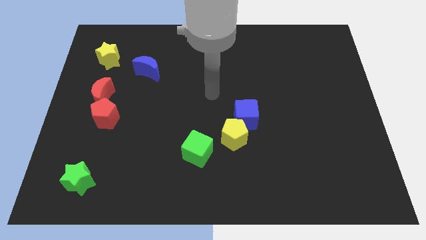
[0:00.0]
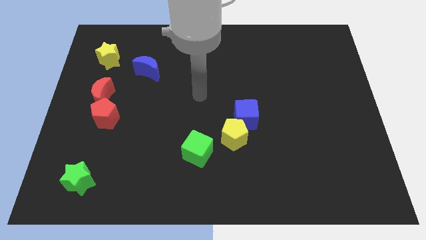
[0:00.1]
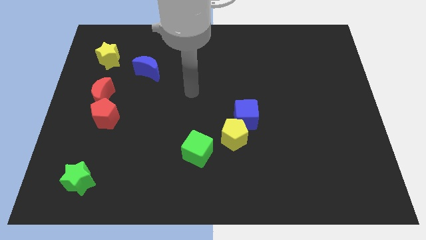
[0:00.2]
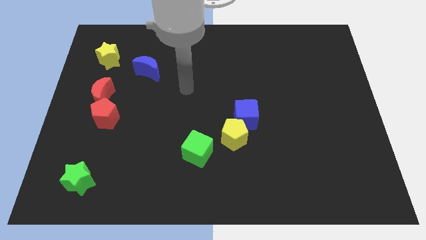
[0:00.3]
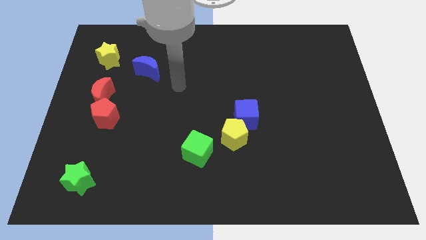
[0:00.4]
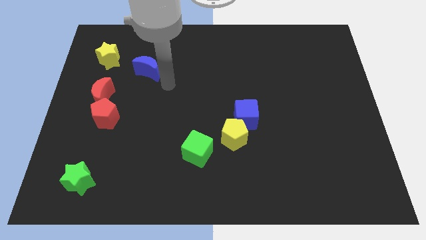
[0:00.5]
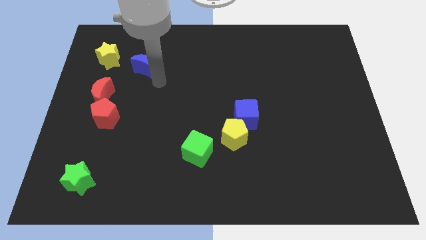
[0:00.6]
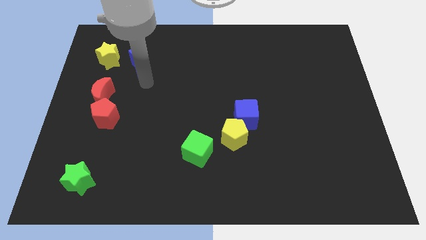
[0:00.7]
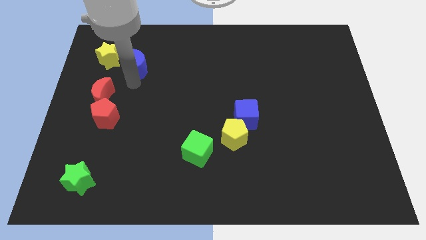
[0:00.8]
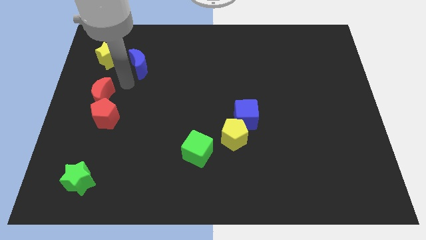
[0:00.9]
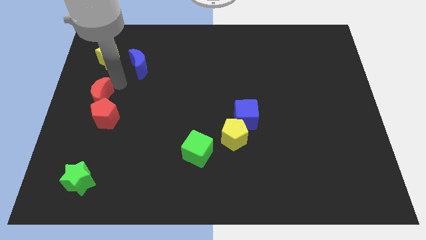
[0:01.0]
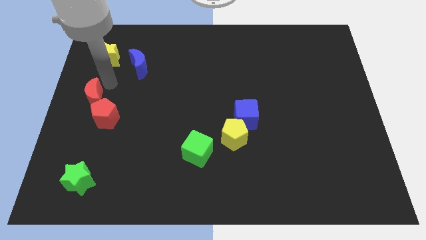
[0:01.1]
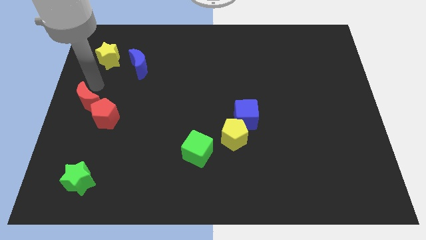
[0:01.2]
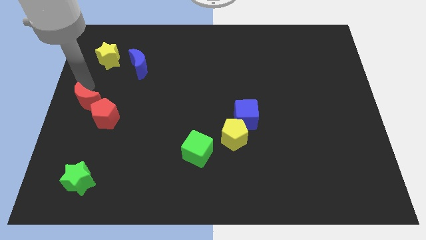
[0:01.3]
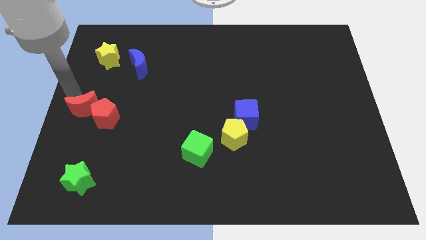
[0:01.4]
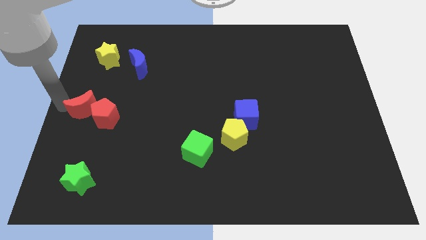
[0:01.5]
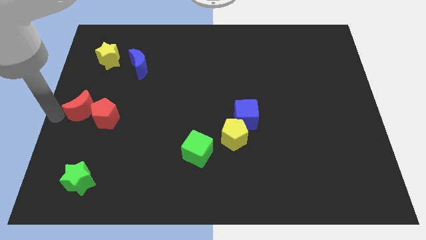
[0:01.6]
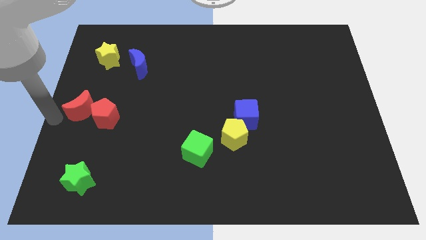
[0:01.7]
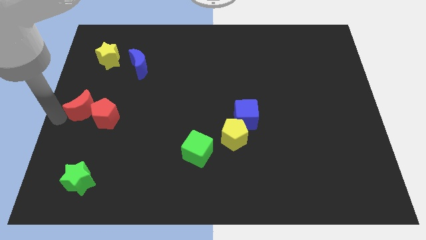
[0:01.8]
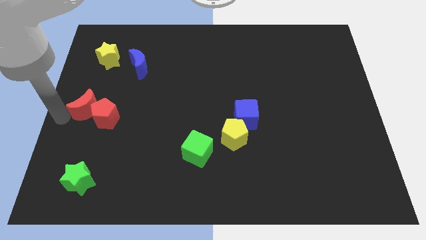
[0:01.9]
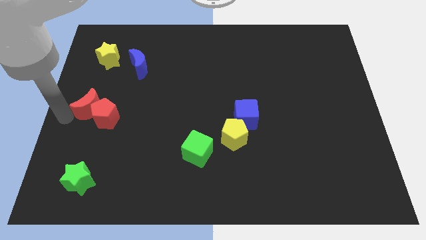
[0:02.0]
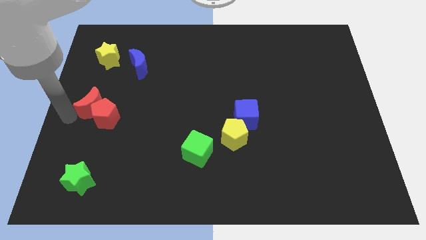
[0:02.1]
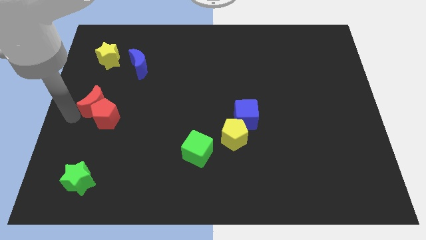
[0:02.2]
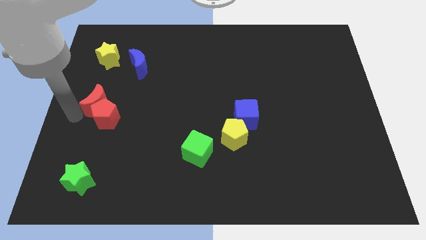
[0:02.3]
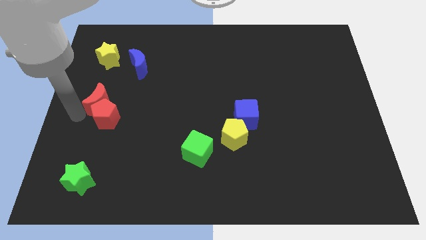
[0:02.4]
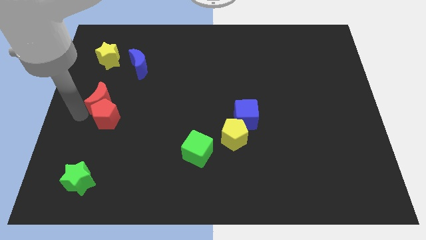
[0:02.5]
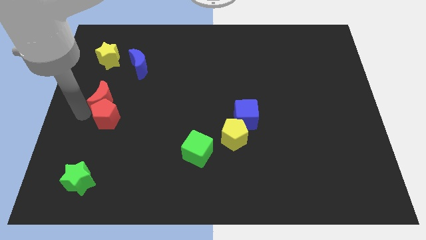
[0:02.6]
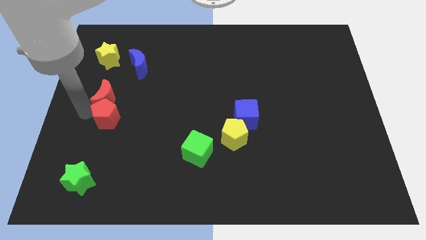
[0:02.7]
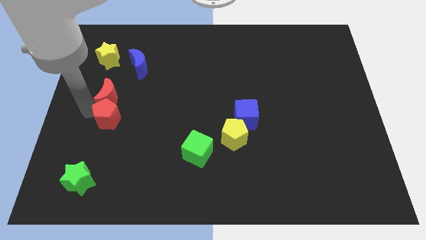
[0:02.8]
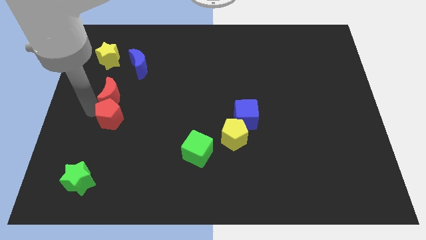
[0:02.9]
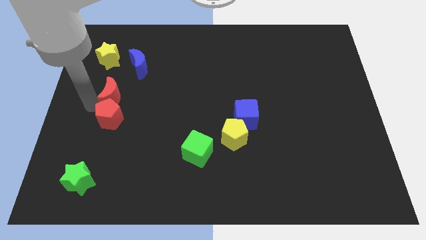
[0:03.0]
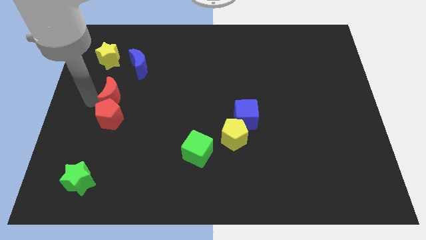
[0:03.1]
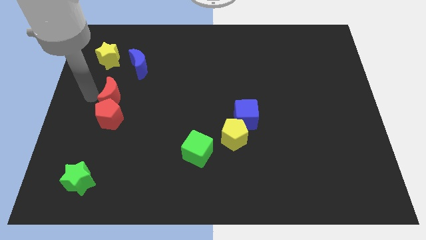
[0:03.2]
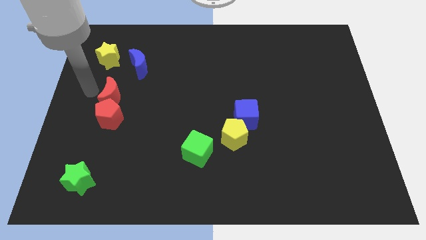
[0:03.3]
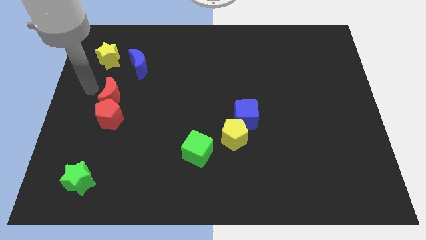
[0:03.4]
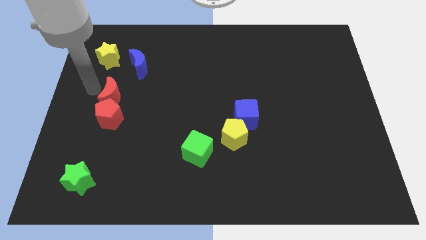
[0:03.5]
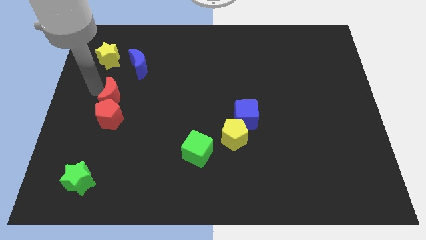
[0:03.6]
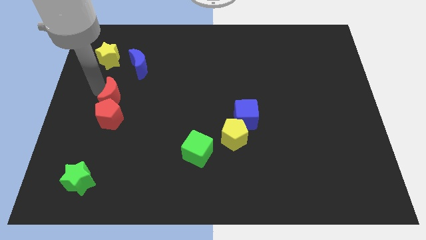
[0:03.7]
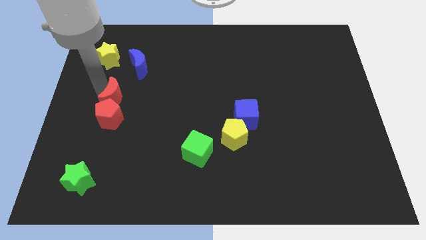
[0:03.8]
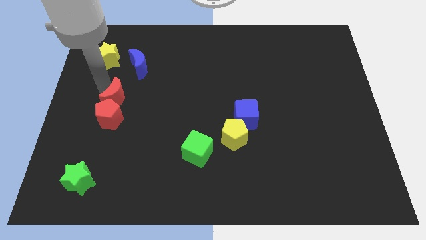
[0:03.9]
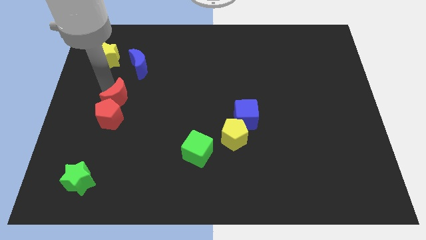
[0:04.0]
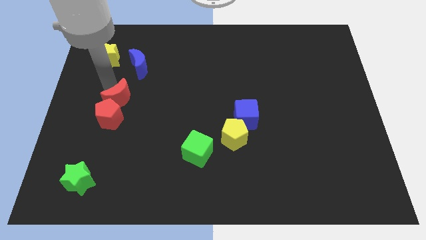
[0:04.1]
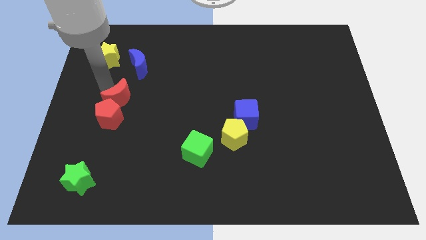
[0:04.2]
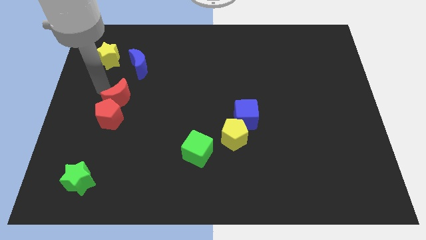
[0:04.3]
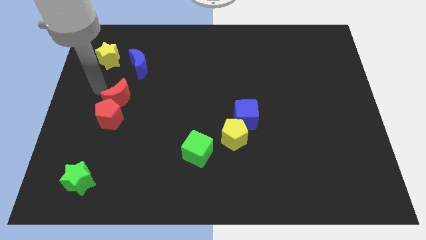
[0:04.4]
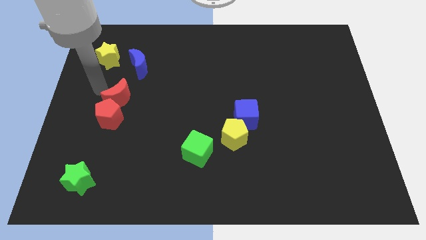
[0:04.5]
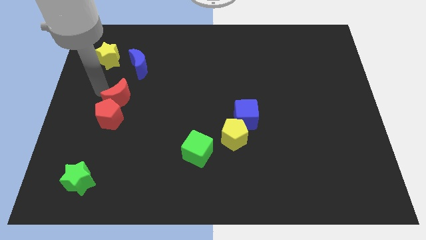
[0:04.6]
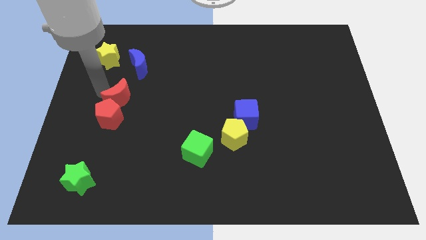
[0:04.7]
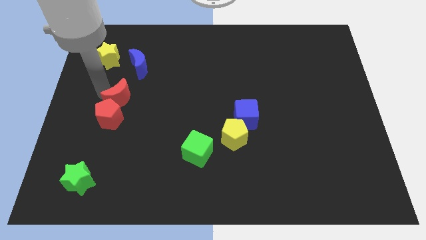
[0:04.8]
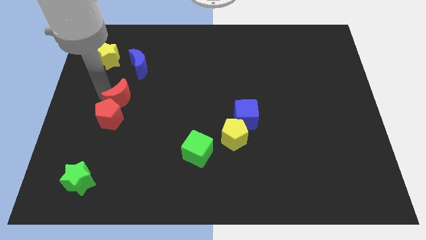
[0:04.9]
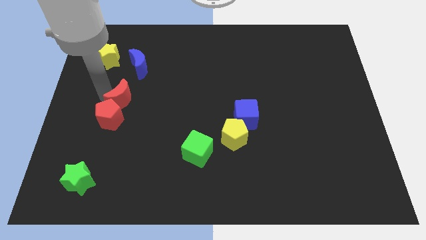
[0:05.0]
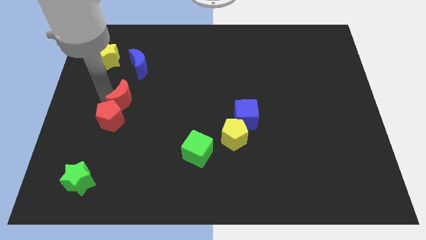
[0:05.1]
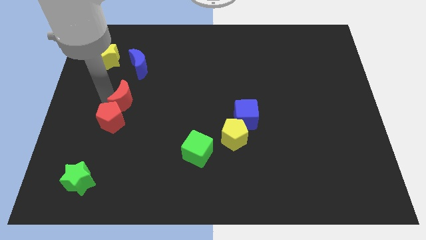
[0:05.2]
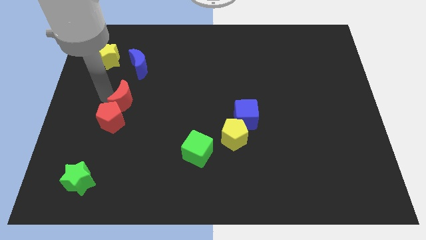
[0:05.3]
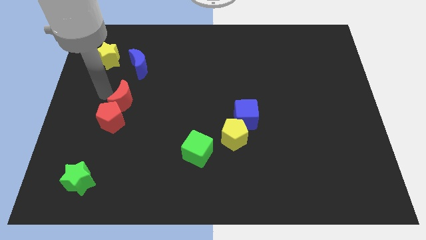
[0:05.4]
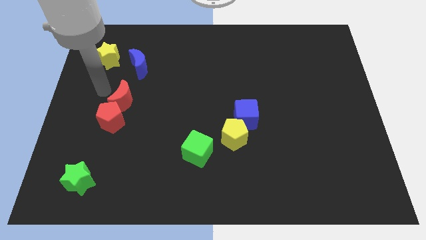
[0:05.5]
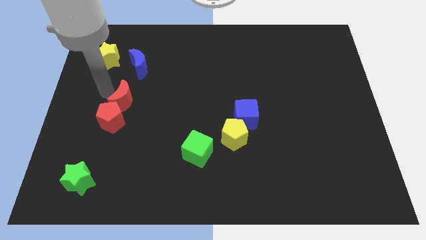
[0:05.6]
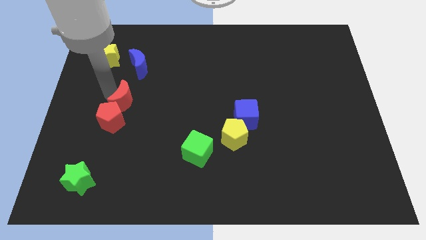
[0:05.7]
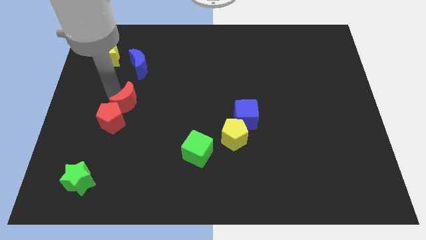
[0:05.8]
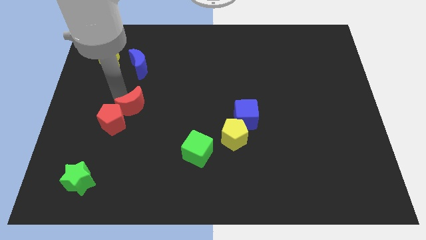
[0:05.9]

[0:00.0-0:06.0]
move the red moon a little bit downwards and right diagonally

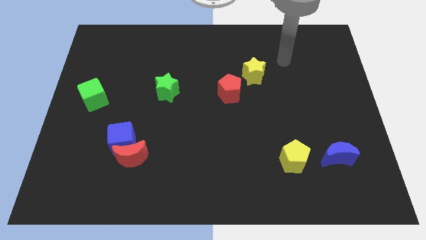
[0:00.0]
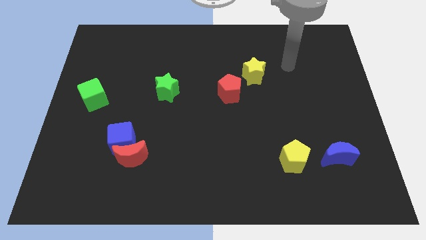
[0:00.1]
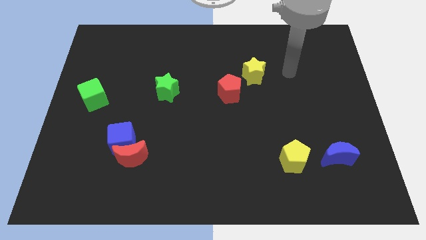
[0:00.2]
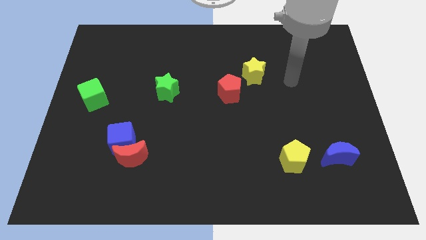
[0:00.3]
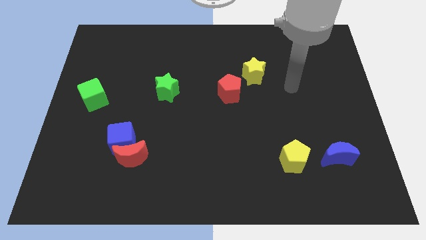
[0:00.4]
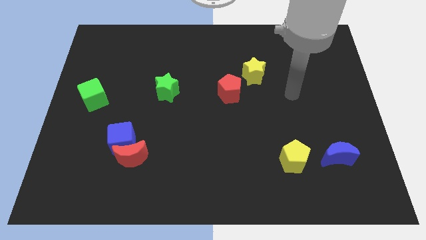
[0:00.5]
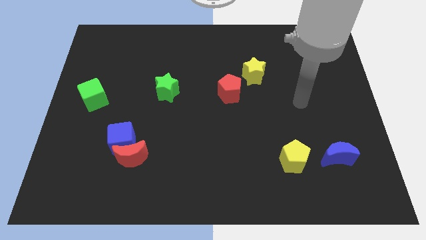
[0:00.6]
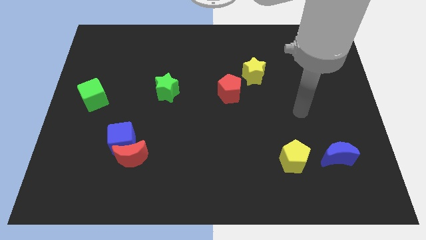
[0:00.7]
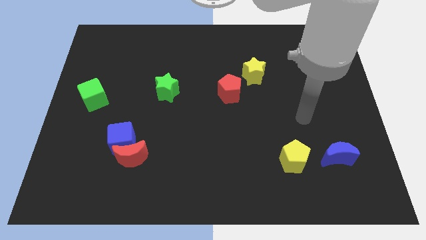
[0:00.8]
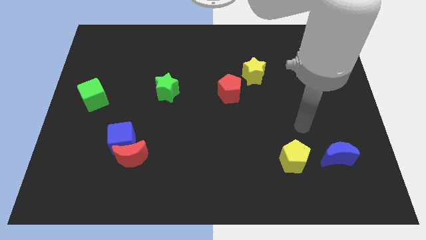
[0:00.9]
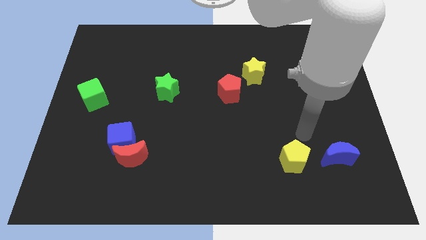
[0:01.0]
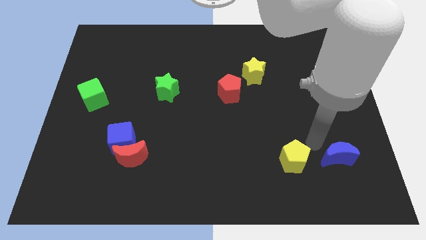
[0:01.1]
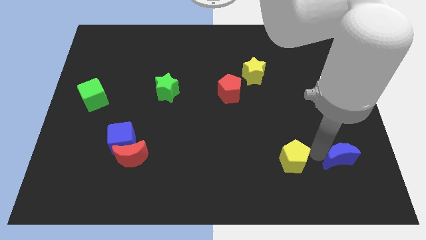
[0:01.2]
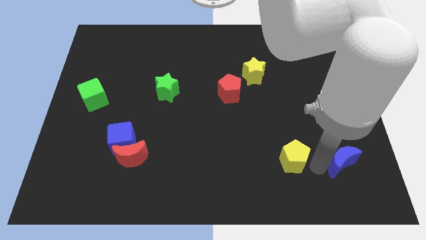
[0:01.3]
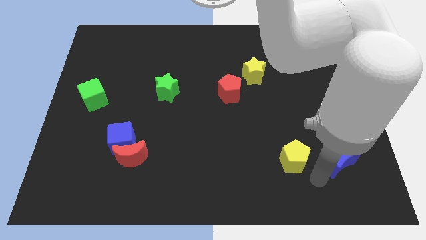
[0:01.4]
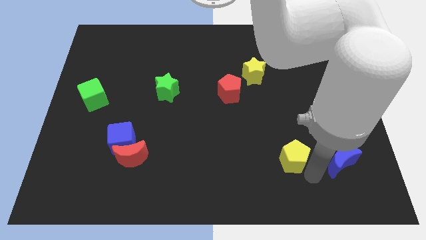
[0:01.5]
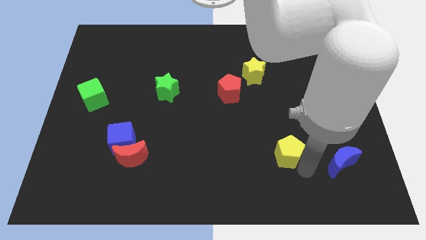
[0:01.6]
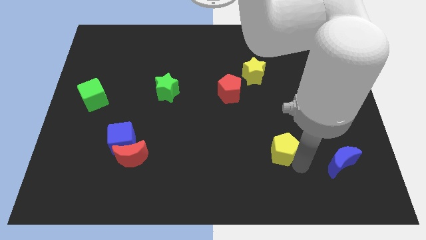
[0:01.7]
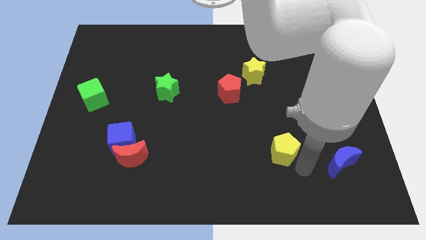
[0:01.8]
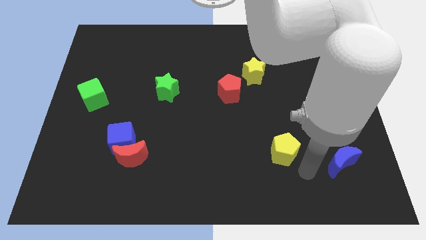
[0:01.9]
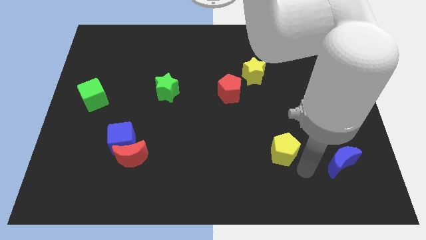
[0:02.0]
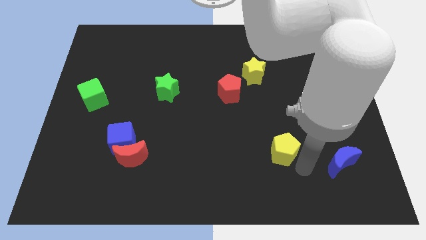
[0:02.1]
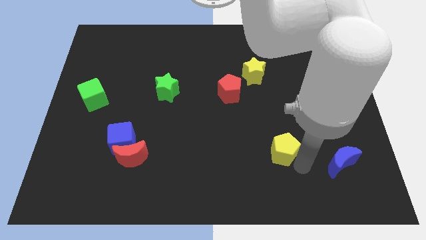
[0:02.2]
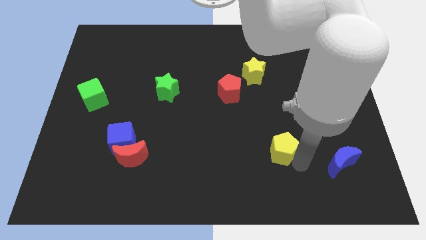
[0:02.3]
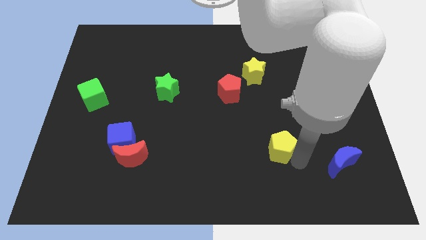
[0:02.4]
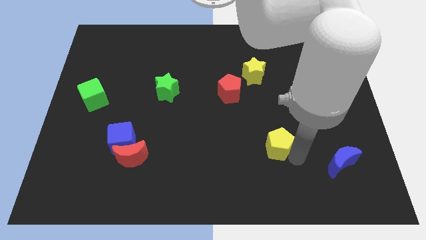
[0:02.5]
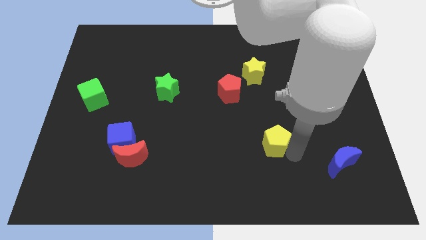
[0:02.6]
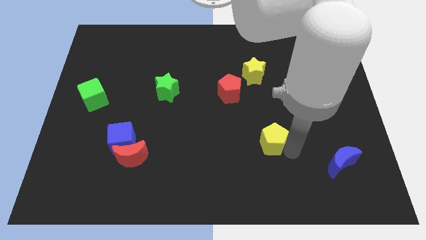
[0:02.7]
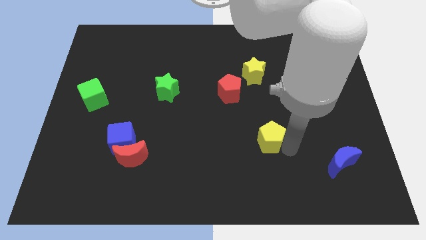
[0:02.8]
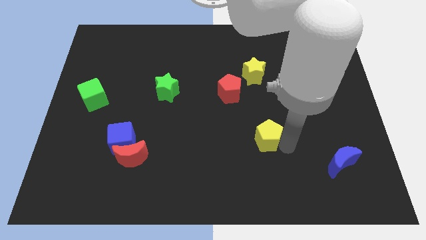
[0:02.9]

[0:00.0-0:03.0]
slightly move the yellow pentagon up and to the left
